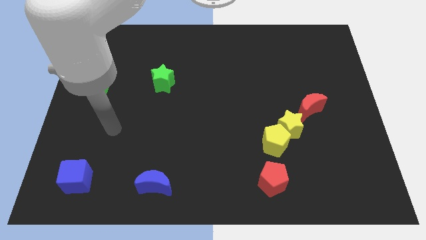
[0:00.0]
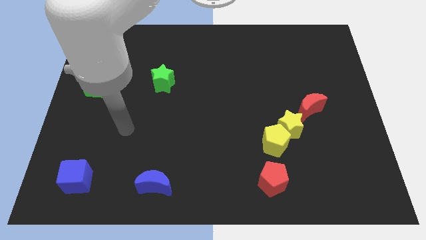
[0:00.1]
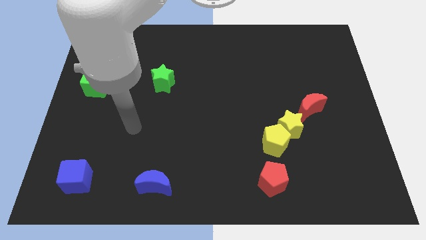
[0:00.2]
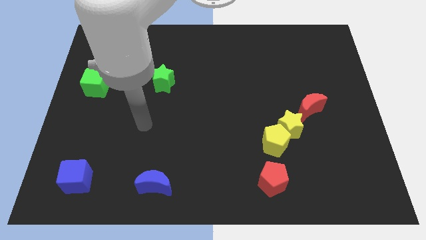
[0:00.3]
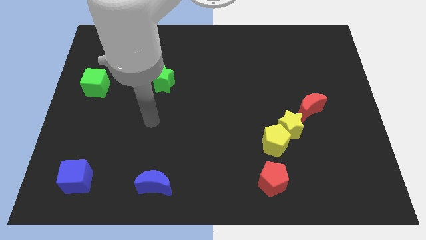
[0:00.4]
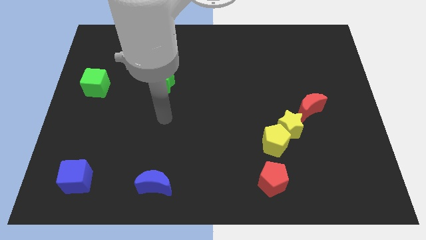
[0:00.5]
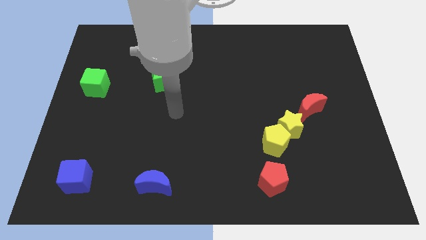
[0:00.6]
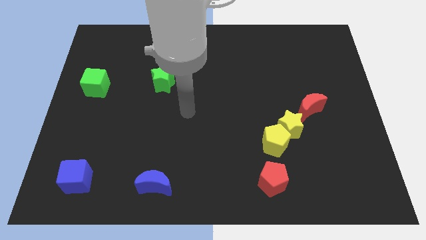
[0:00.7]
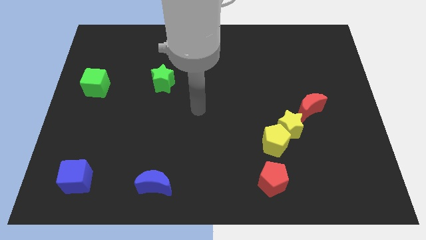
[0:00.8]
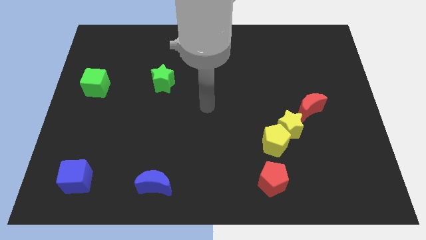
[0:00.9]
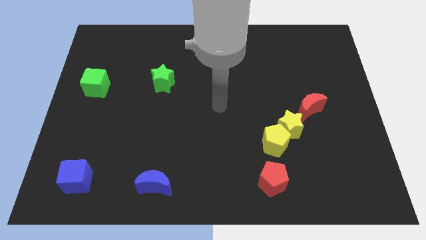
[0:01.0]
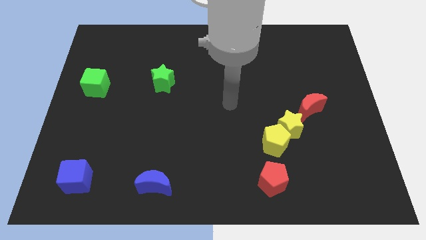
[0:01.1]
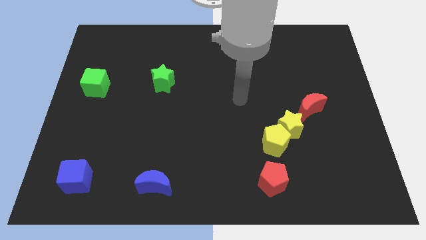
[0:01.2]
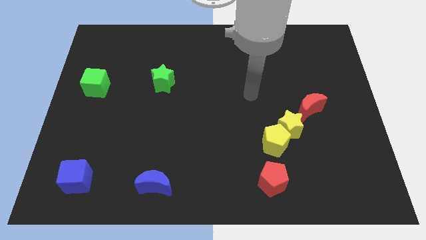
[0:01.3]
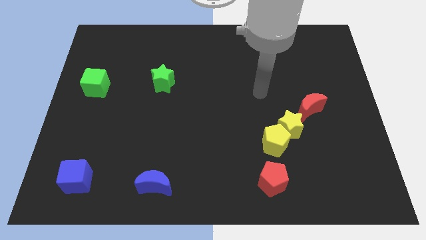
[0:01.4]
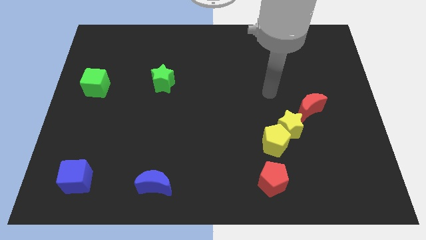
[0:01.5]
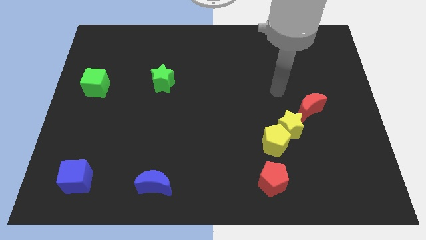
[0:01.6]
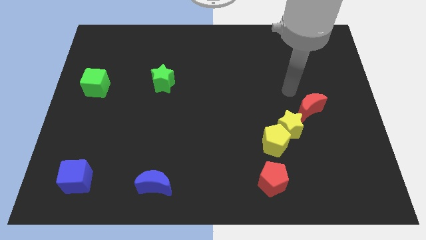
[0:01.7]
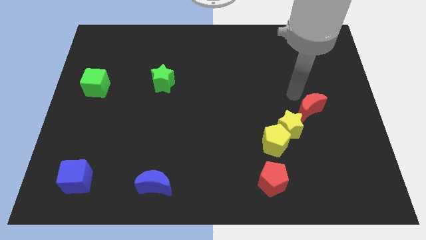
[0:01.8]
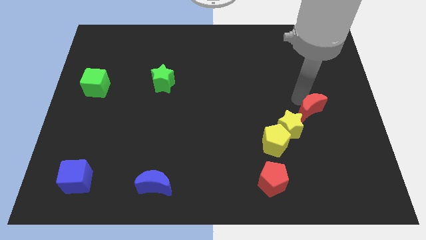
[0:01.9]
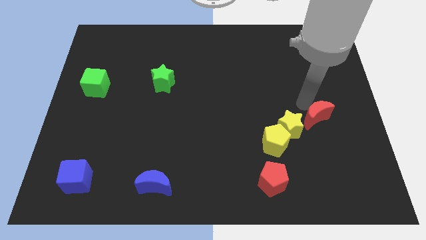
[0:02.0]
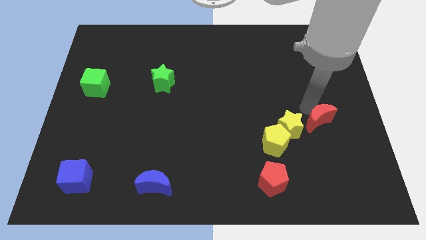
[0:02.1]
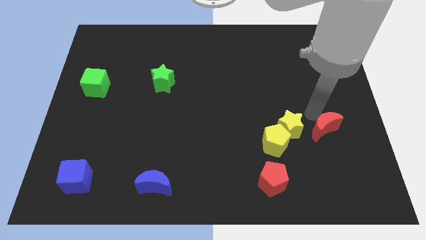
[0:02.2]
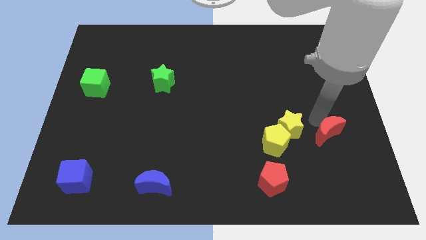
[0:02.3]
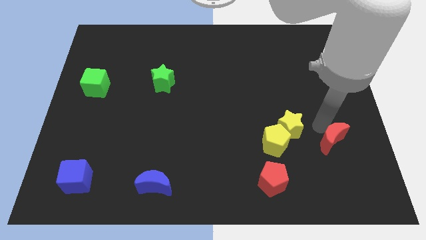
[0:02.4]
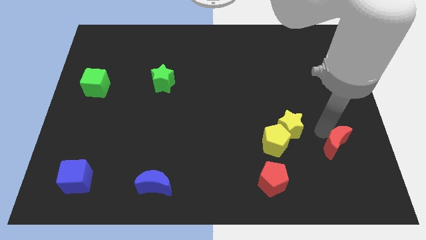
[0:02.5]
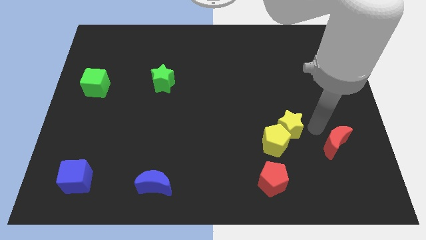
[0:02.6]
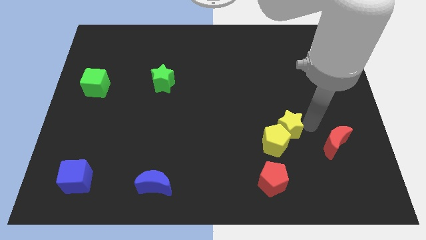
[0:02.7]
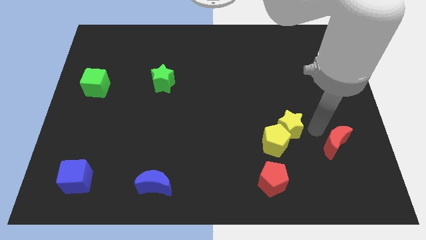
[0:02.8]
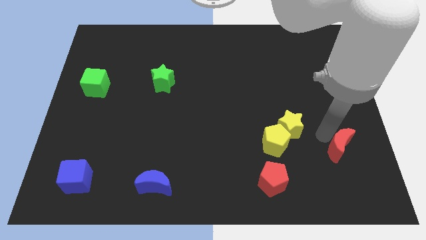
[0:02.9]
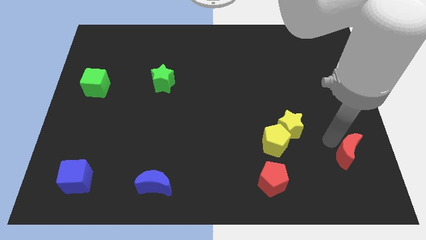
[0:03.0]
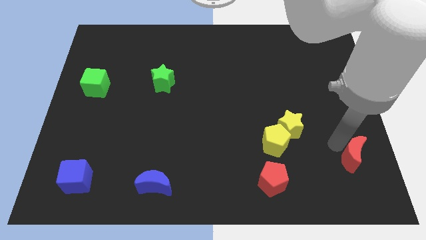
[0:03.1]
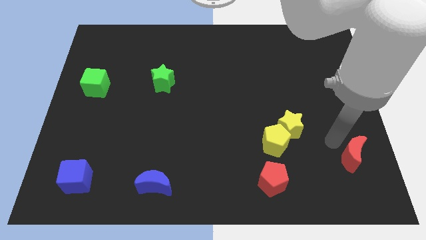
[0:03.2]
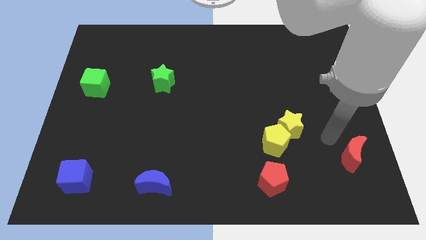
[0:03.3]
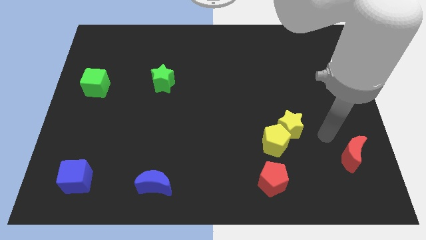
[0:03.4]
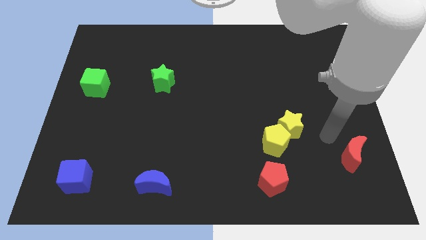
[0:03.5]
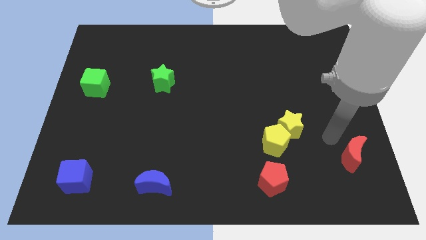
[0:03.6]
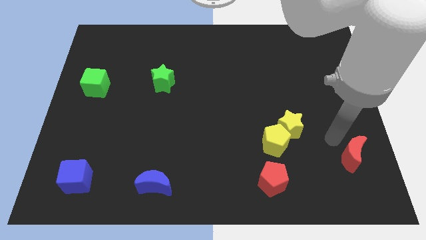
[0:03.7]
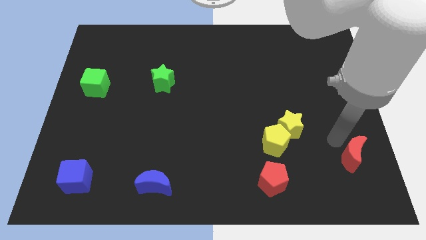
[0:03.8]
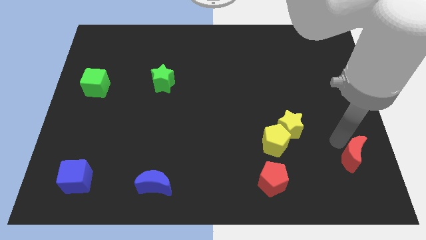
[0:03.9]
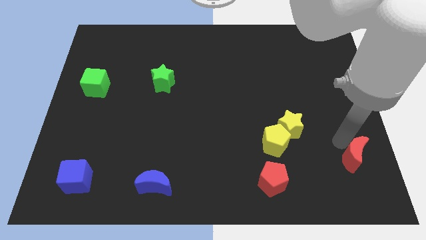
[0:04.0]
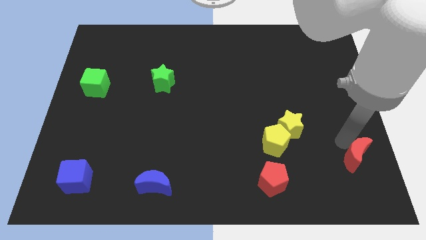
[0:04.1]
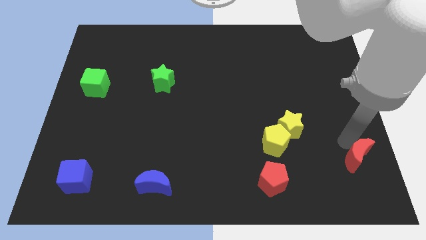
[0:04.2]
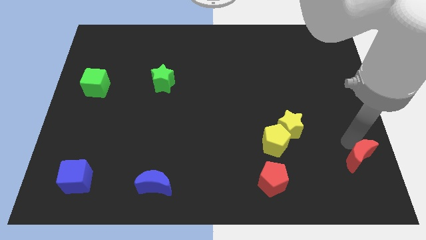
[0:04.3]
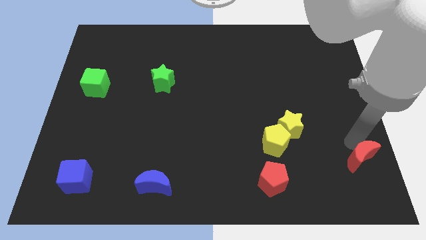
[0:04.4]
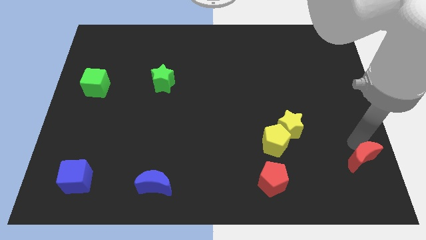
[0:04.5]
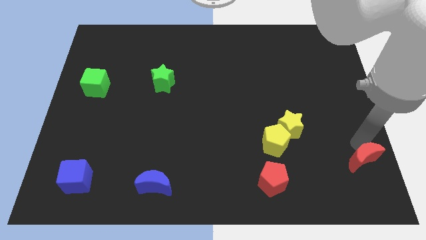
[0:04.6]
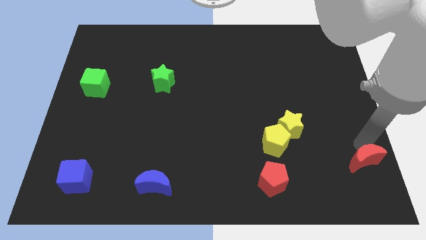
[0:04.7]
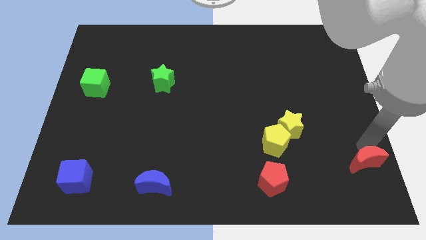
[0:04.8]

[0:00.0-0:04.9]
slide the red moon to the bottom right

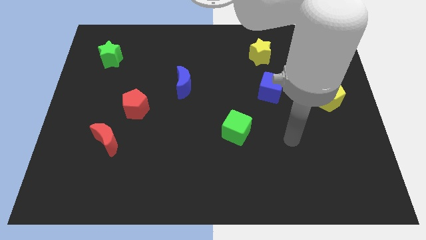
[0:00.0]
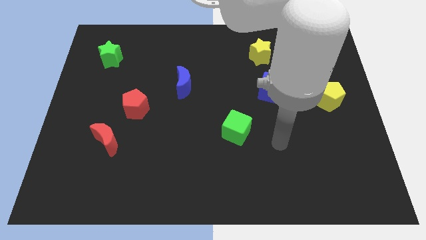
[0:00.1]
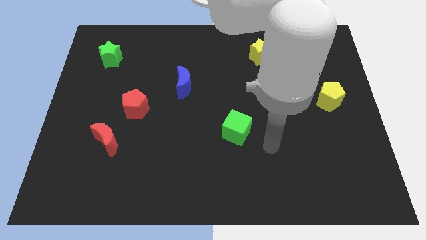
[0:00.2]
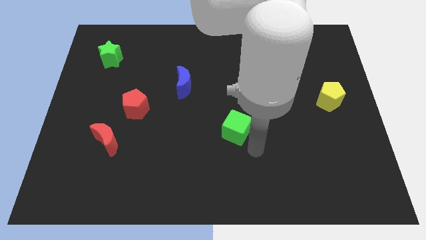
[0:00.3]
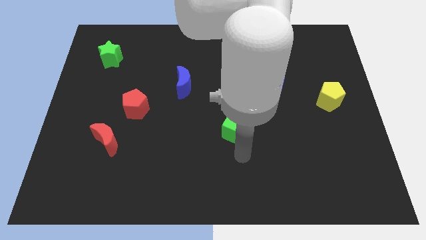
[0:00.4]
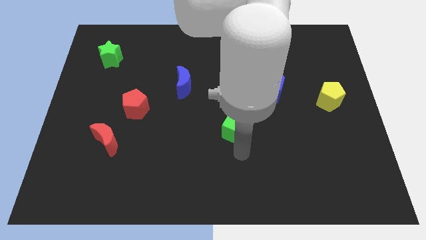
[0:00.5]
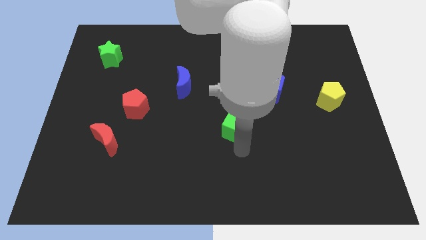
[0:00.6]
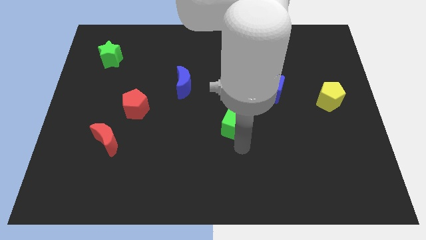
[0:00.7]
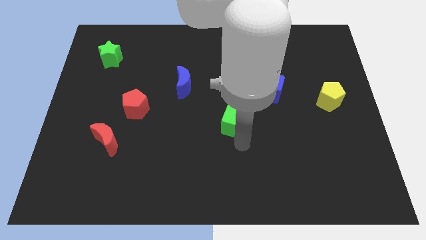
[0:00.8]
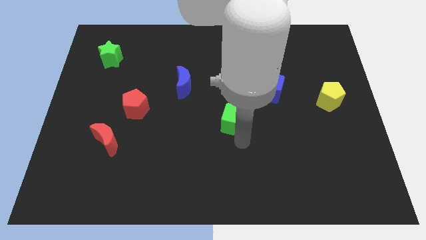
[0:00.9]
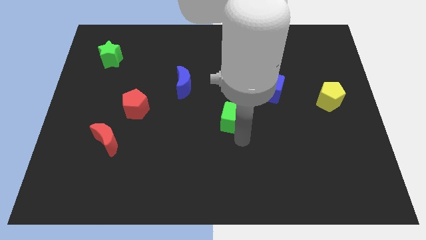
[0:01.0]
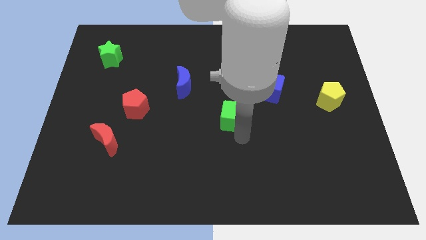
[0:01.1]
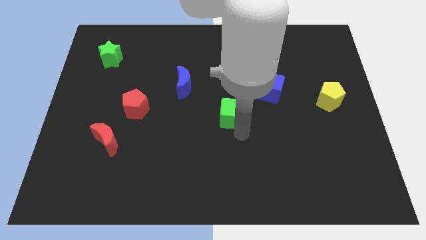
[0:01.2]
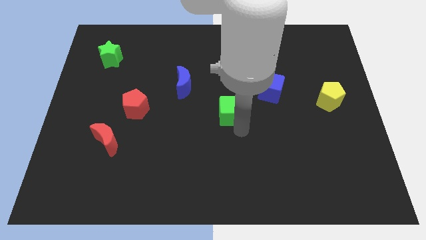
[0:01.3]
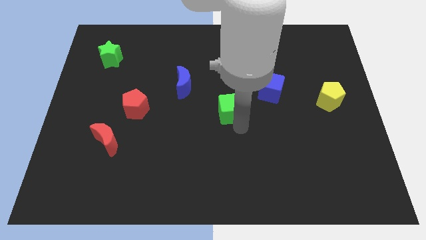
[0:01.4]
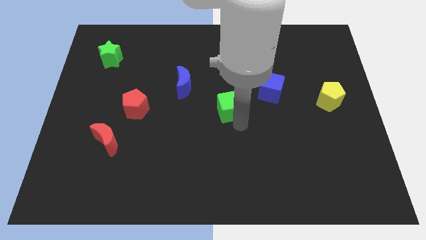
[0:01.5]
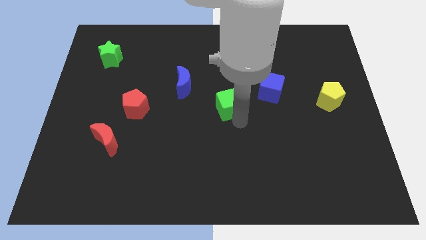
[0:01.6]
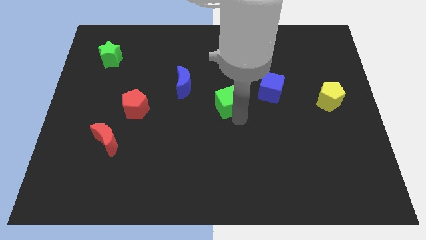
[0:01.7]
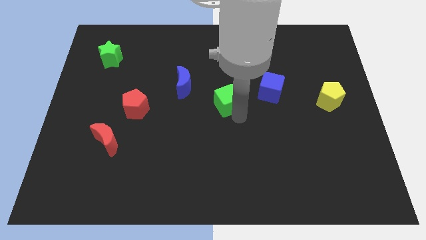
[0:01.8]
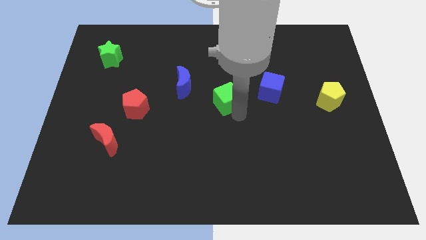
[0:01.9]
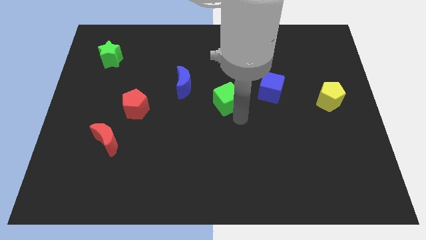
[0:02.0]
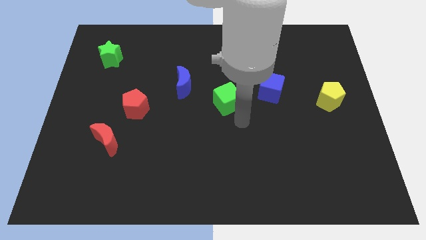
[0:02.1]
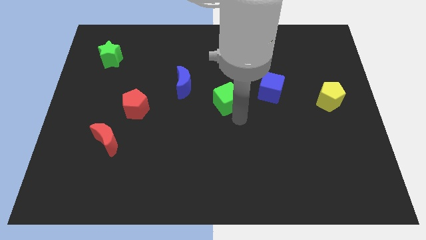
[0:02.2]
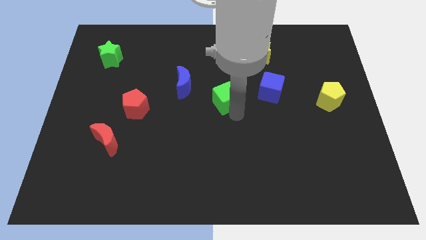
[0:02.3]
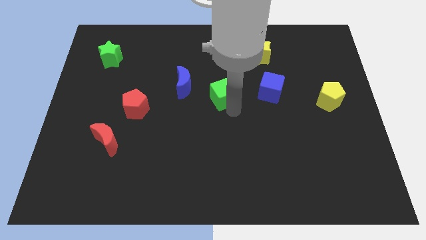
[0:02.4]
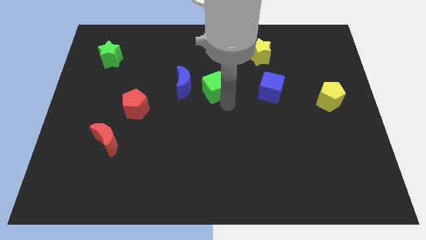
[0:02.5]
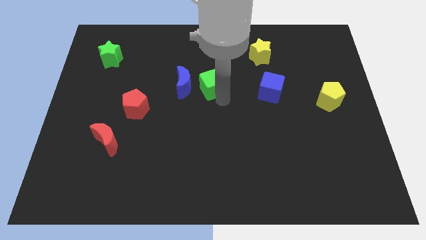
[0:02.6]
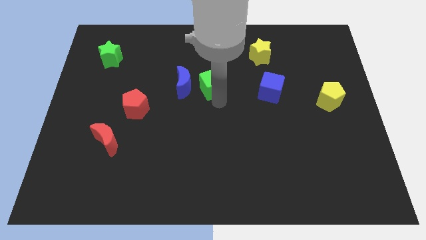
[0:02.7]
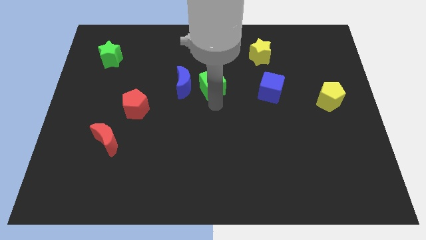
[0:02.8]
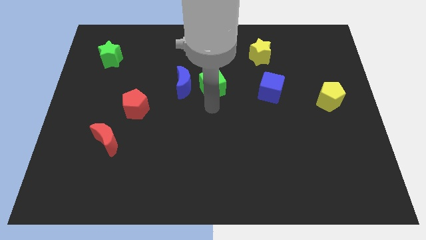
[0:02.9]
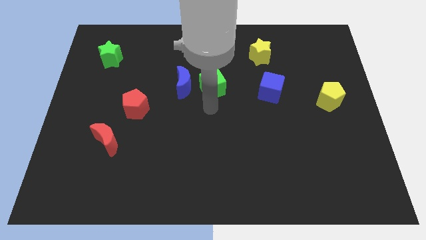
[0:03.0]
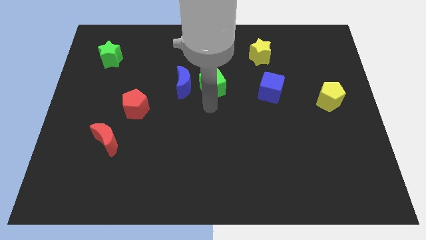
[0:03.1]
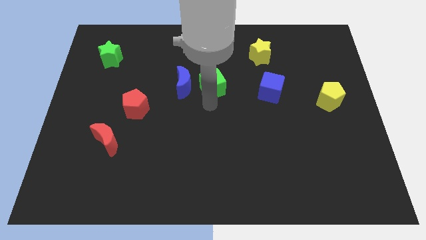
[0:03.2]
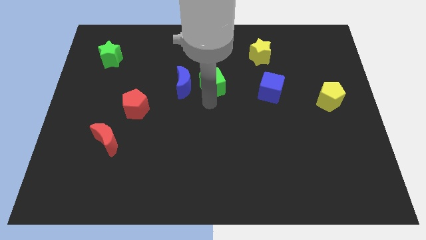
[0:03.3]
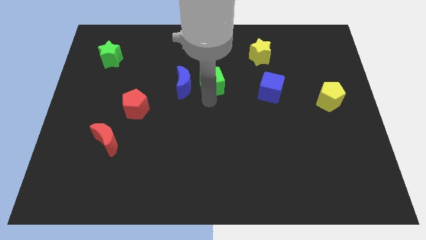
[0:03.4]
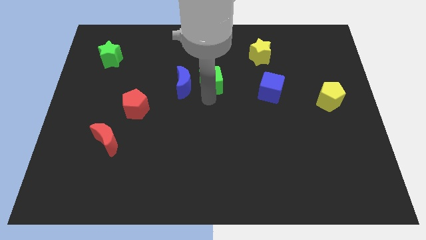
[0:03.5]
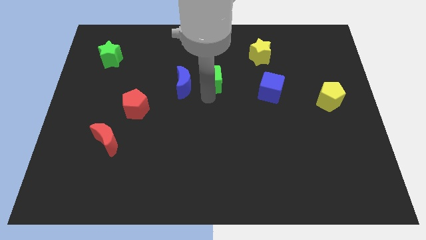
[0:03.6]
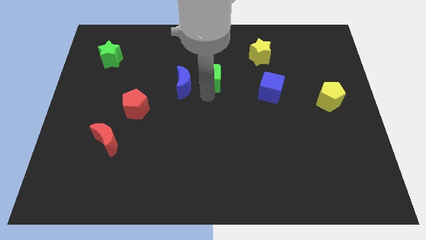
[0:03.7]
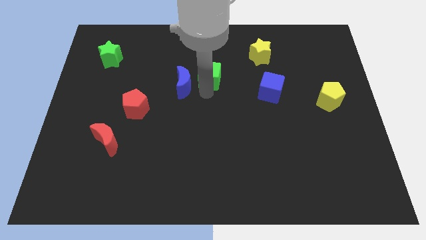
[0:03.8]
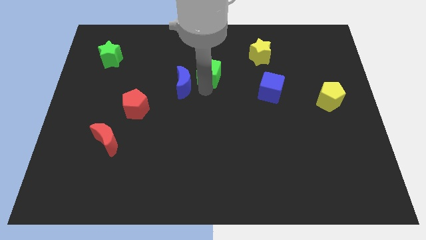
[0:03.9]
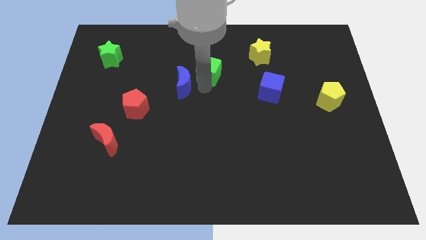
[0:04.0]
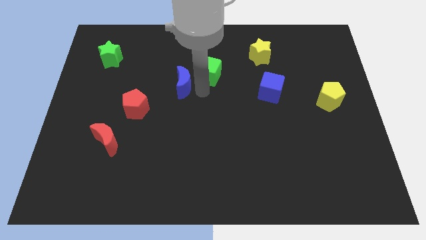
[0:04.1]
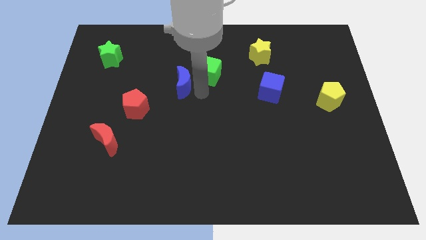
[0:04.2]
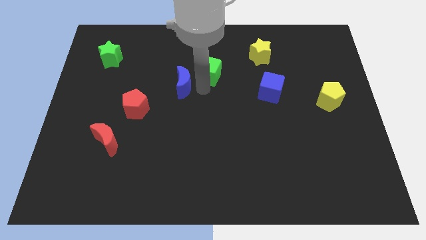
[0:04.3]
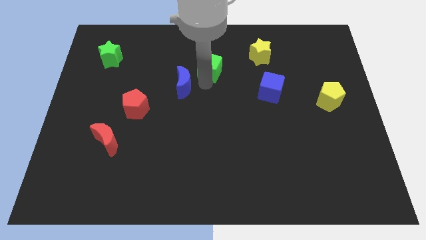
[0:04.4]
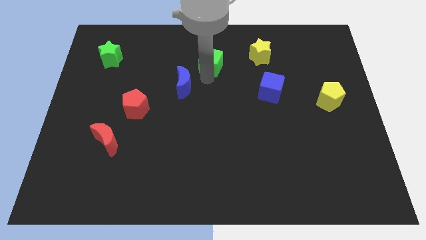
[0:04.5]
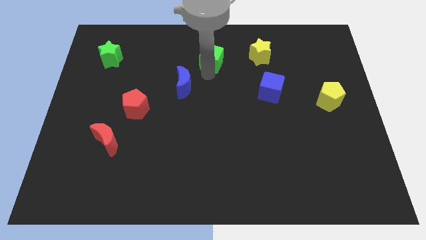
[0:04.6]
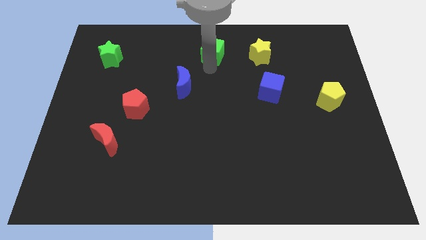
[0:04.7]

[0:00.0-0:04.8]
slide the green cube to the towards your base
